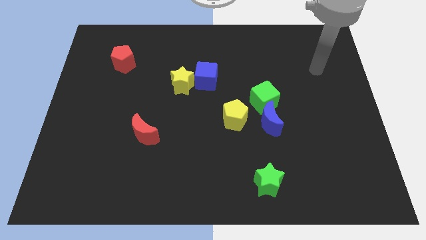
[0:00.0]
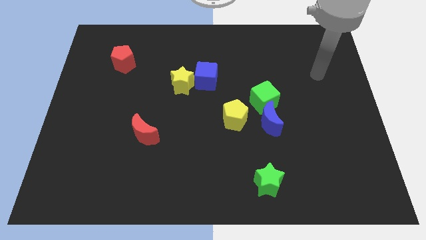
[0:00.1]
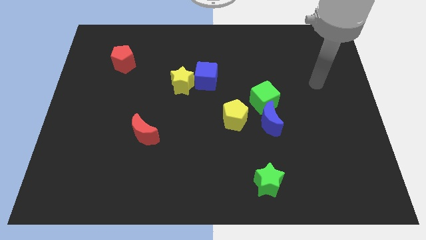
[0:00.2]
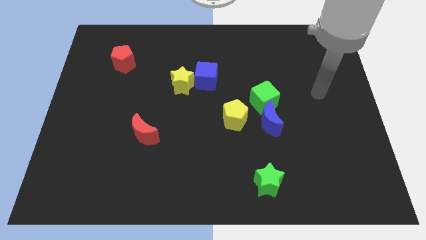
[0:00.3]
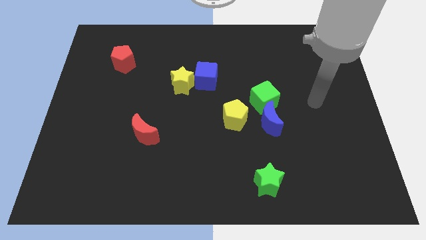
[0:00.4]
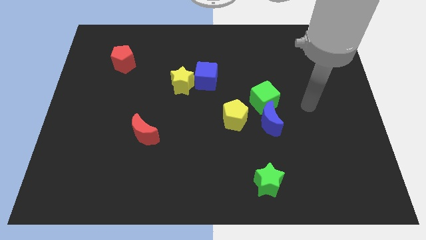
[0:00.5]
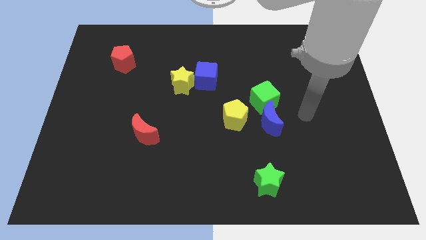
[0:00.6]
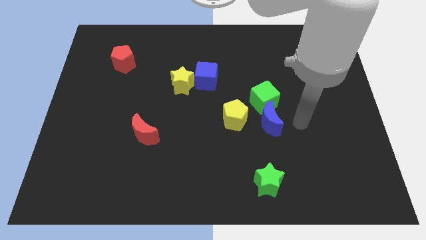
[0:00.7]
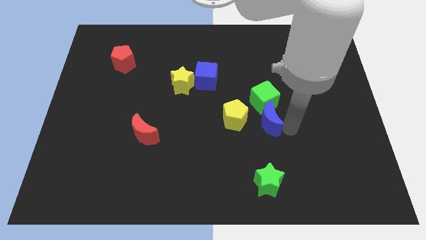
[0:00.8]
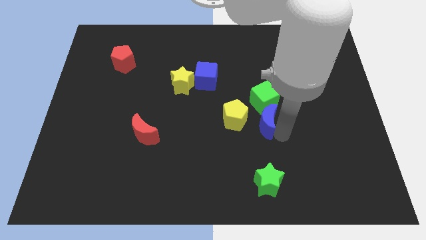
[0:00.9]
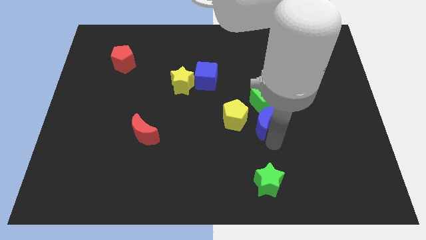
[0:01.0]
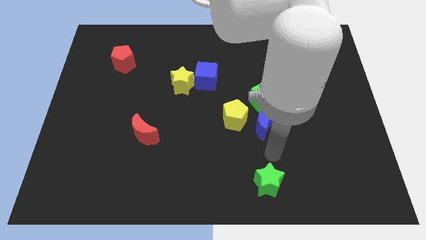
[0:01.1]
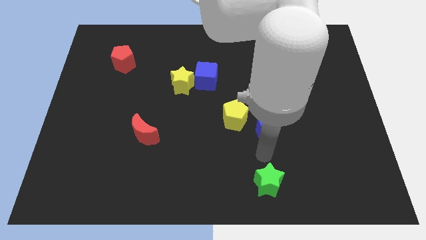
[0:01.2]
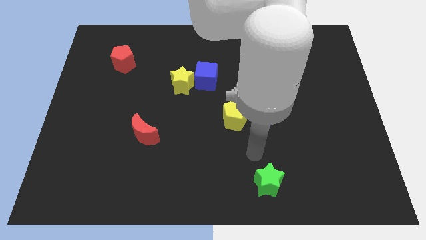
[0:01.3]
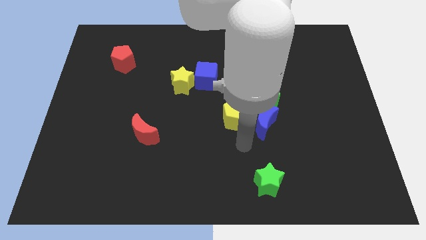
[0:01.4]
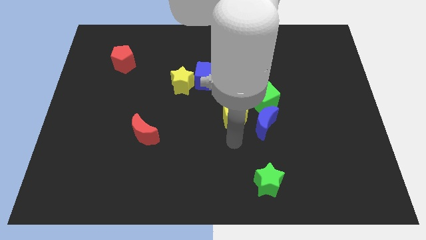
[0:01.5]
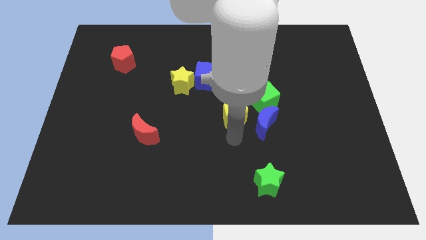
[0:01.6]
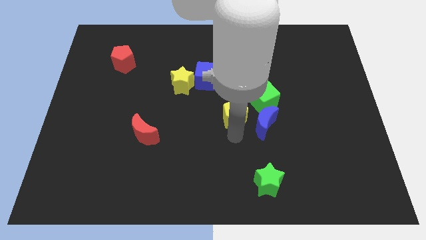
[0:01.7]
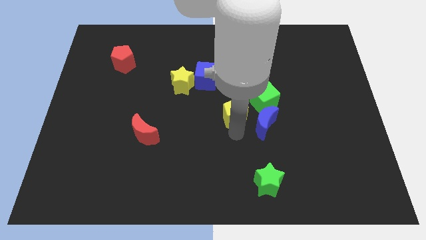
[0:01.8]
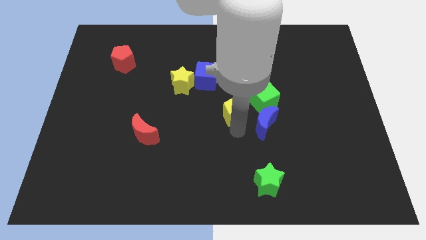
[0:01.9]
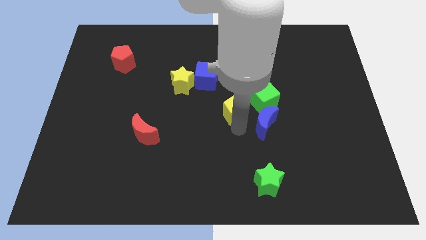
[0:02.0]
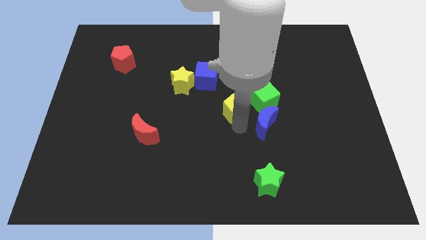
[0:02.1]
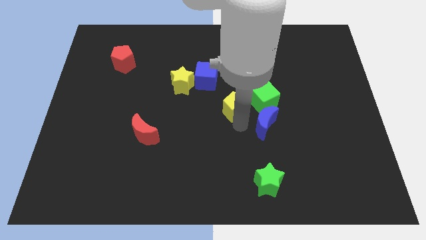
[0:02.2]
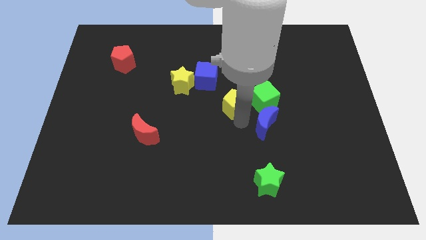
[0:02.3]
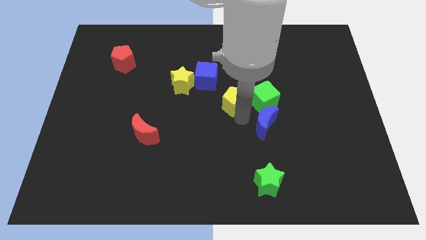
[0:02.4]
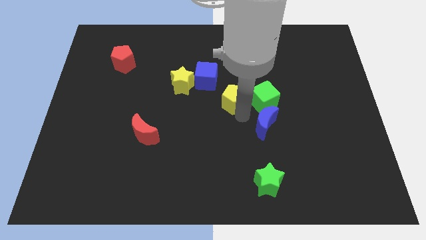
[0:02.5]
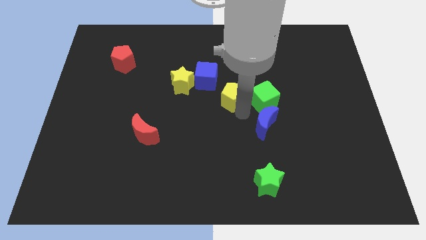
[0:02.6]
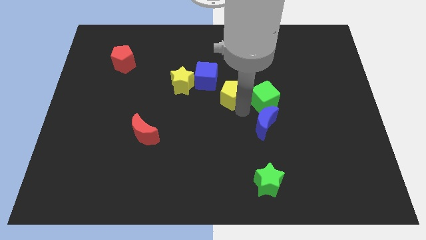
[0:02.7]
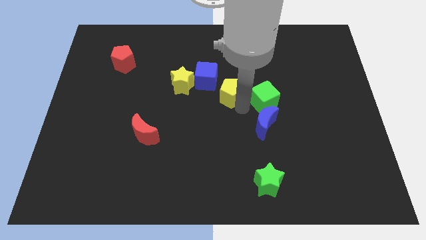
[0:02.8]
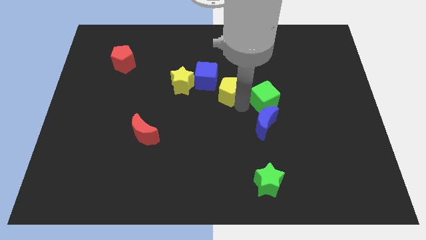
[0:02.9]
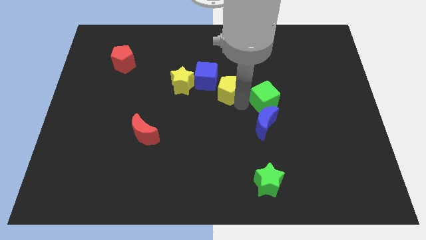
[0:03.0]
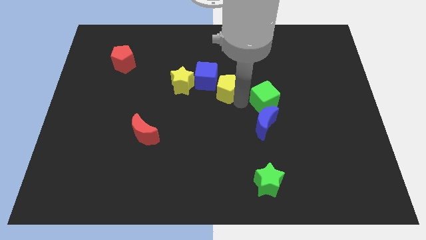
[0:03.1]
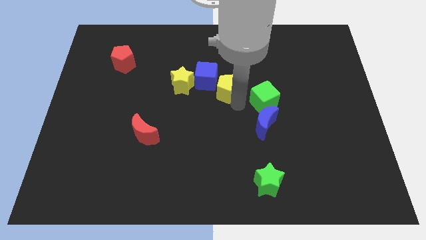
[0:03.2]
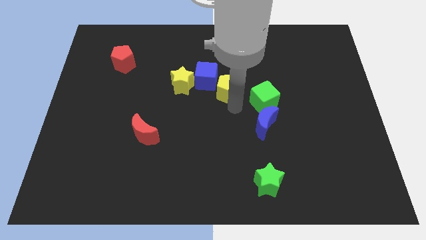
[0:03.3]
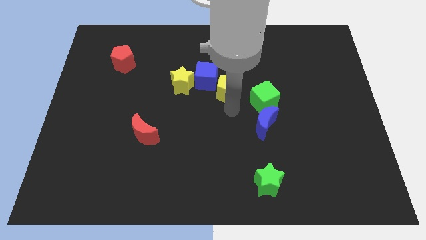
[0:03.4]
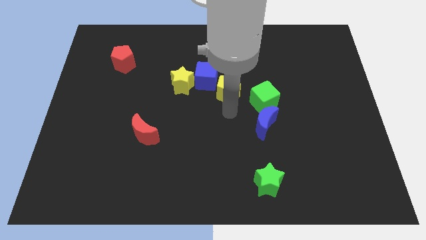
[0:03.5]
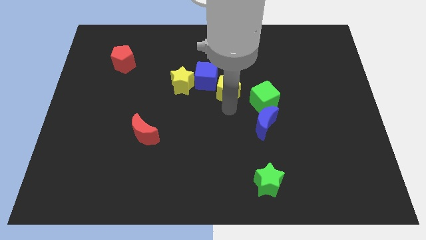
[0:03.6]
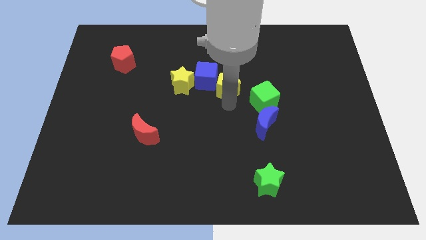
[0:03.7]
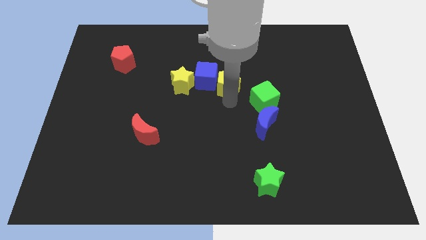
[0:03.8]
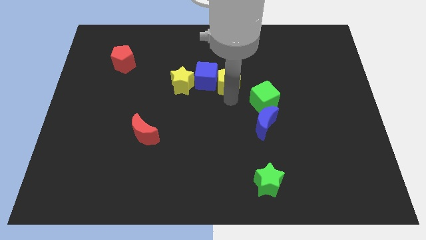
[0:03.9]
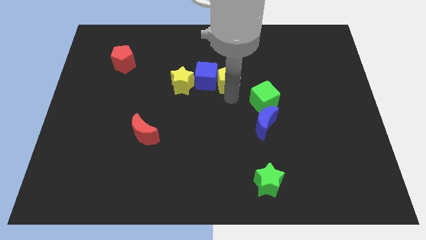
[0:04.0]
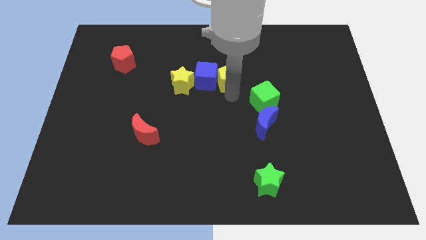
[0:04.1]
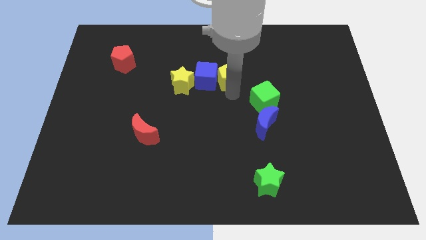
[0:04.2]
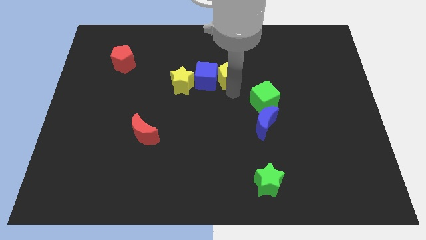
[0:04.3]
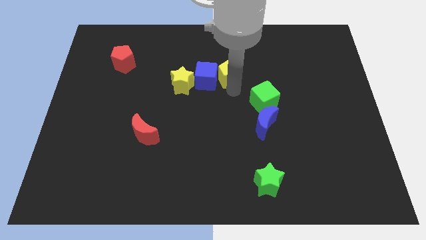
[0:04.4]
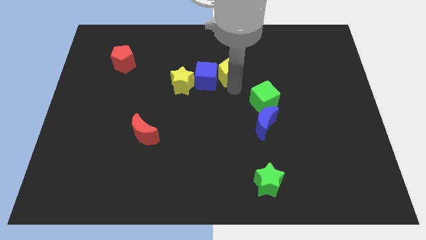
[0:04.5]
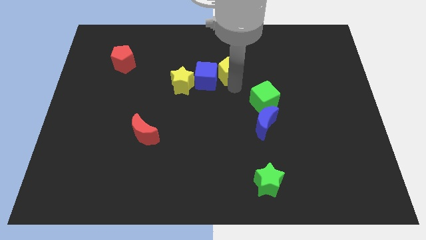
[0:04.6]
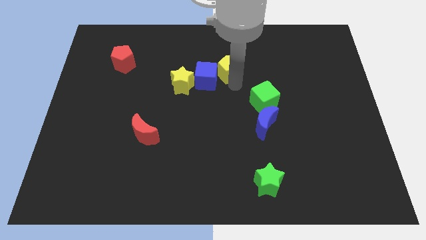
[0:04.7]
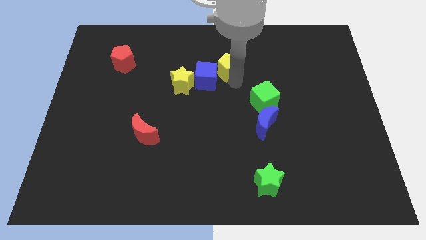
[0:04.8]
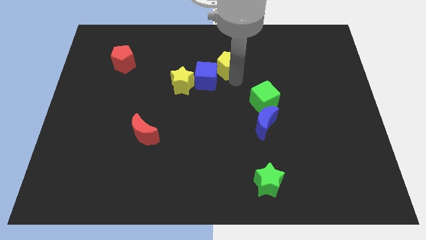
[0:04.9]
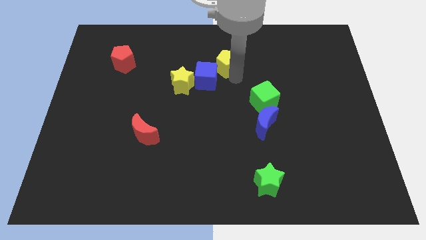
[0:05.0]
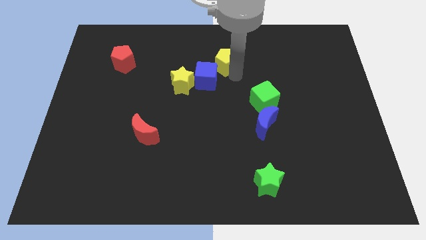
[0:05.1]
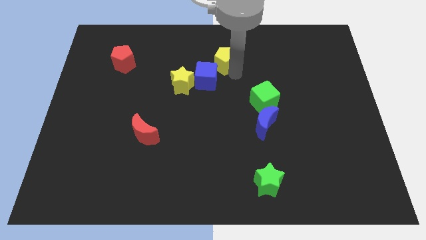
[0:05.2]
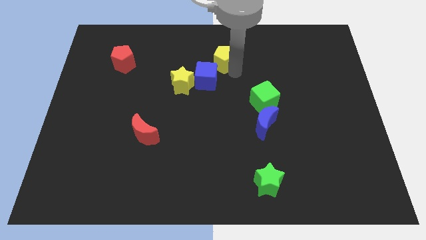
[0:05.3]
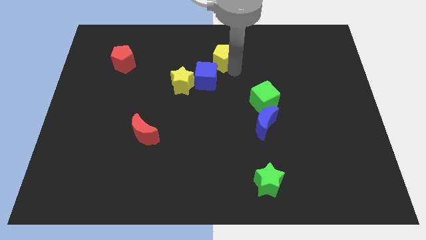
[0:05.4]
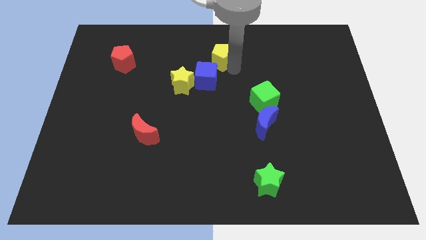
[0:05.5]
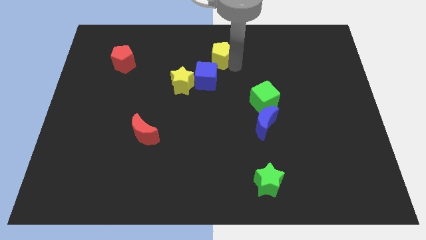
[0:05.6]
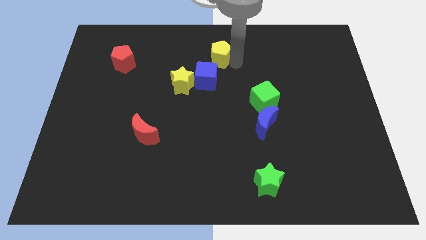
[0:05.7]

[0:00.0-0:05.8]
put the yellow pentagon to the top

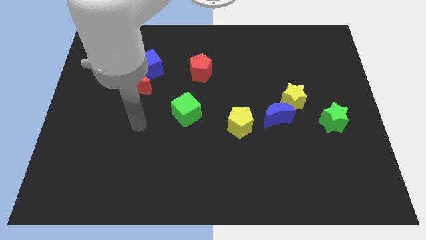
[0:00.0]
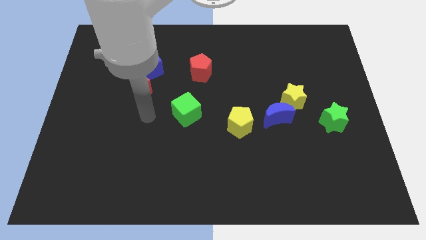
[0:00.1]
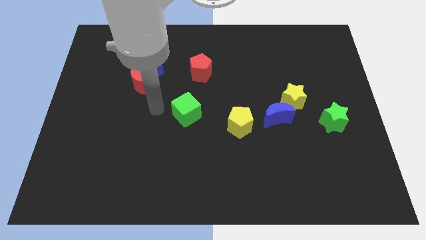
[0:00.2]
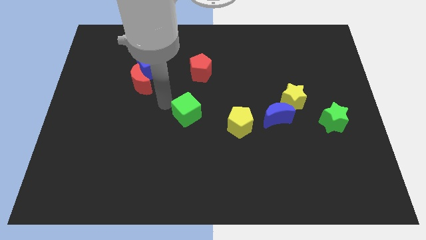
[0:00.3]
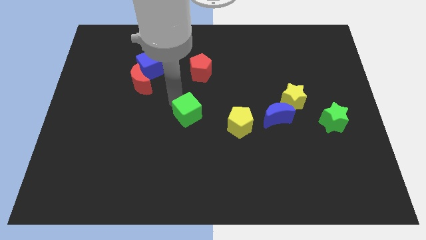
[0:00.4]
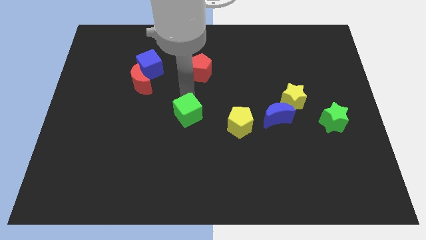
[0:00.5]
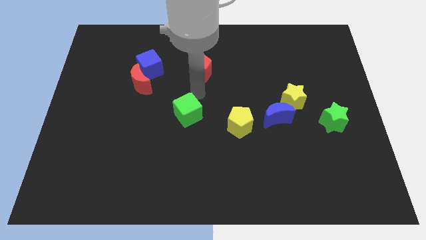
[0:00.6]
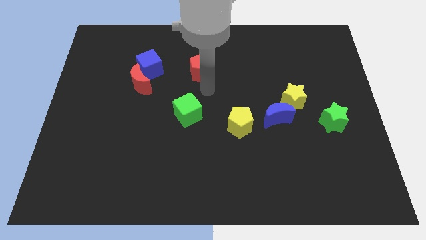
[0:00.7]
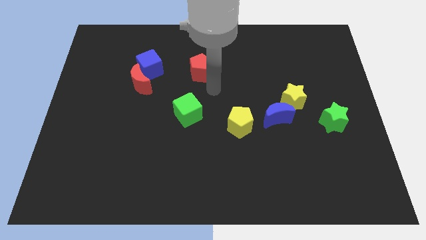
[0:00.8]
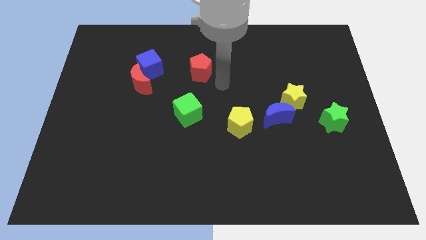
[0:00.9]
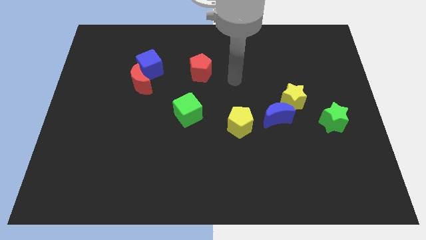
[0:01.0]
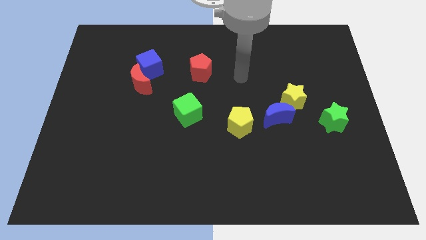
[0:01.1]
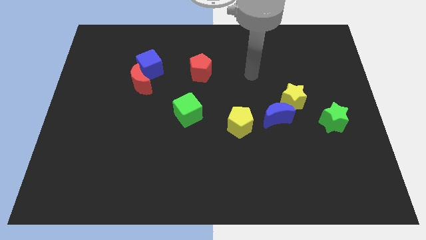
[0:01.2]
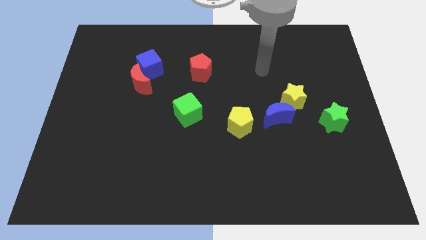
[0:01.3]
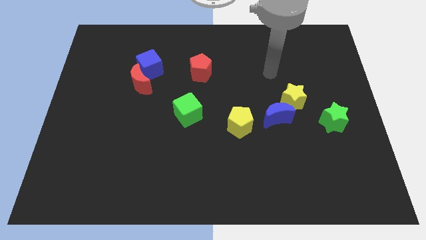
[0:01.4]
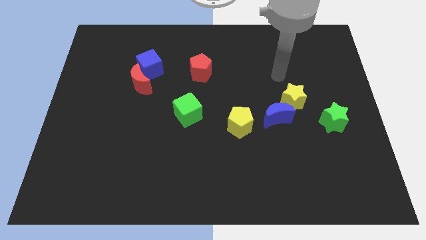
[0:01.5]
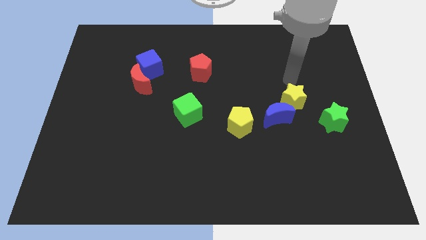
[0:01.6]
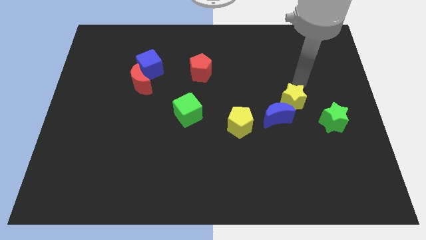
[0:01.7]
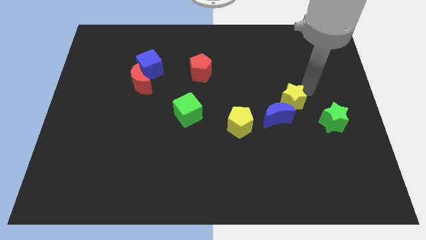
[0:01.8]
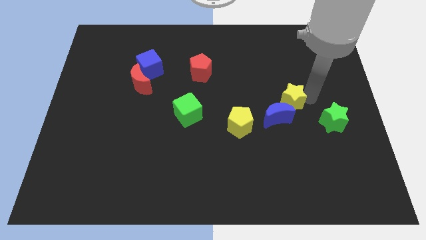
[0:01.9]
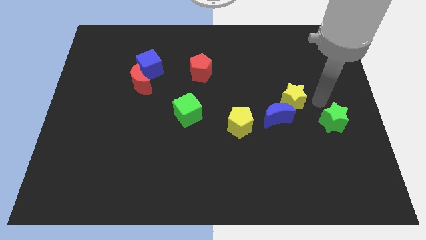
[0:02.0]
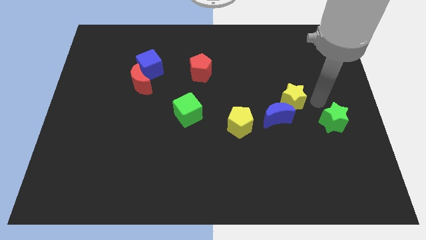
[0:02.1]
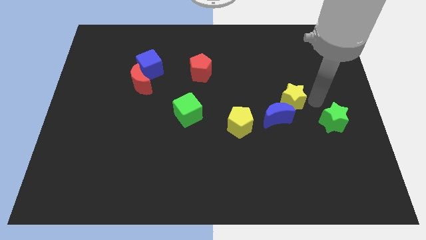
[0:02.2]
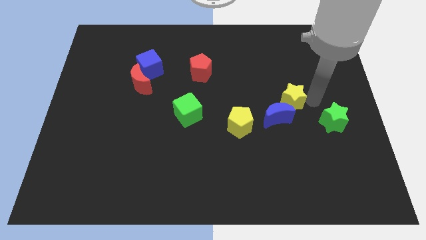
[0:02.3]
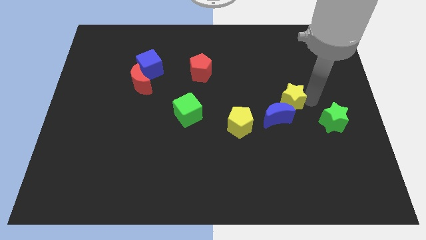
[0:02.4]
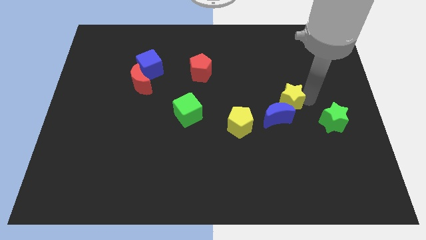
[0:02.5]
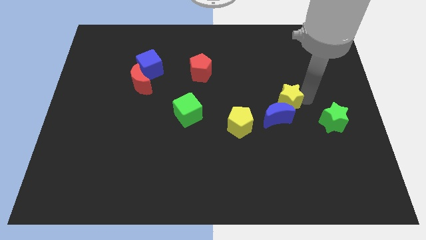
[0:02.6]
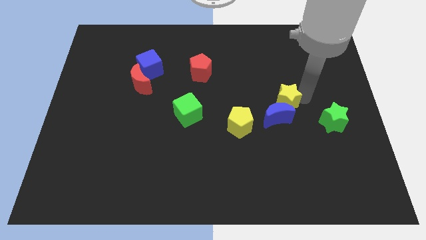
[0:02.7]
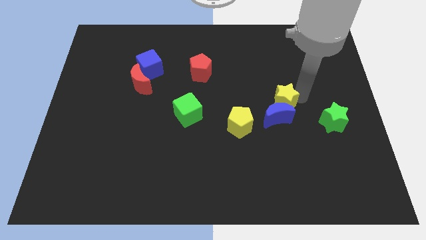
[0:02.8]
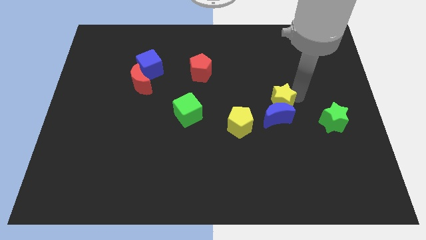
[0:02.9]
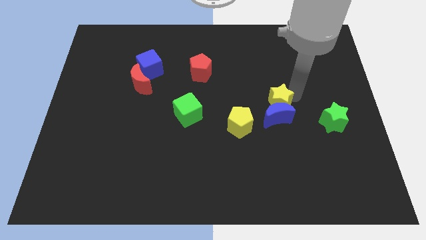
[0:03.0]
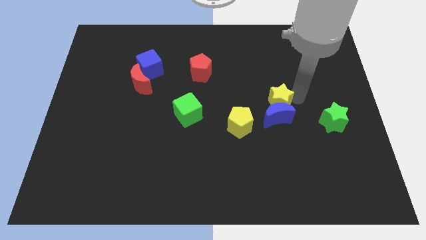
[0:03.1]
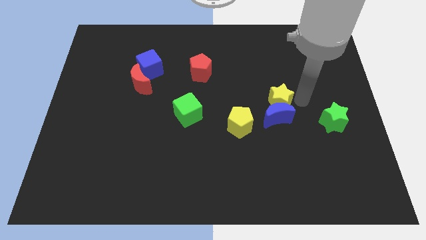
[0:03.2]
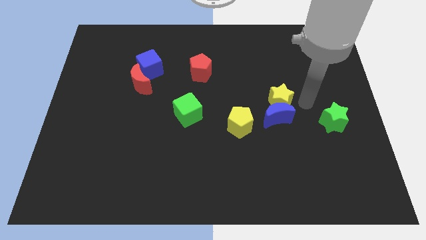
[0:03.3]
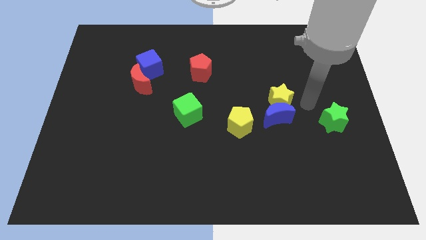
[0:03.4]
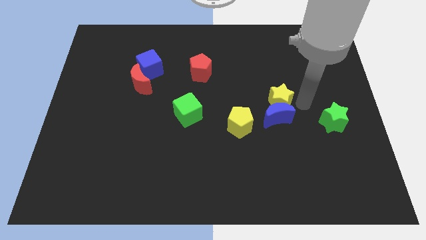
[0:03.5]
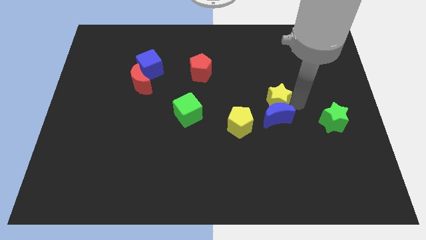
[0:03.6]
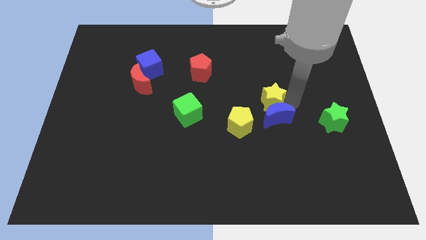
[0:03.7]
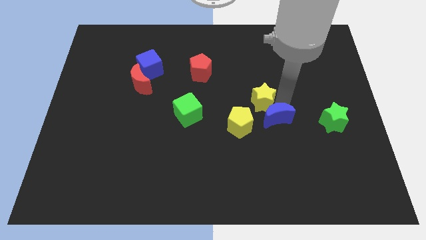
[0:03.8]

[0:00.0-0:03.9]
slide the yellow star to the center
